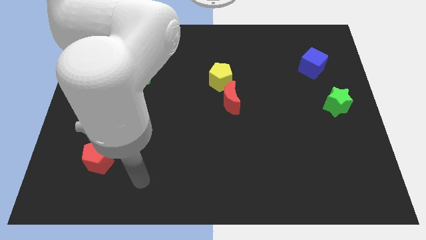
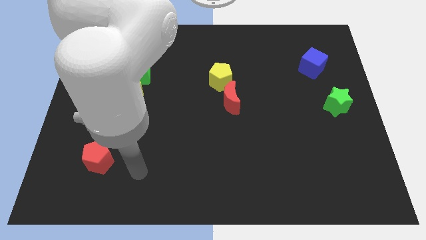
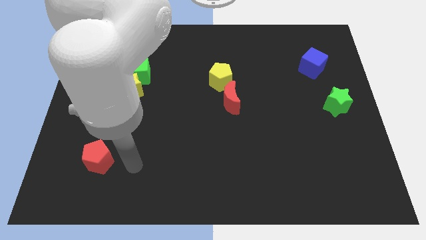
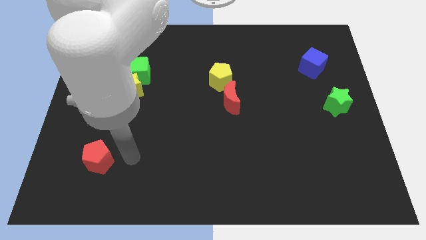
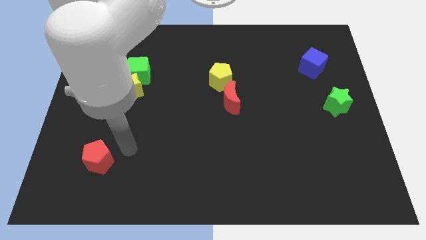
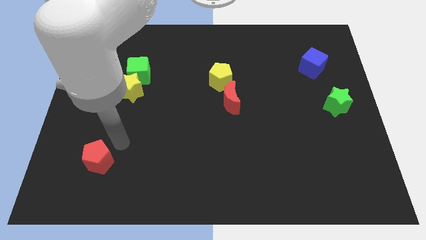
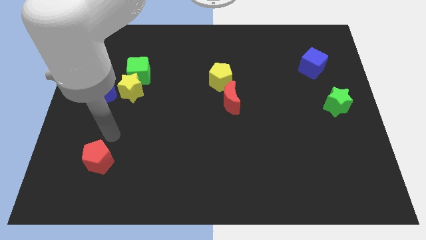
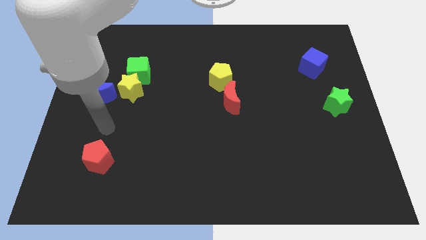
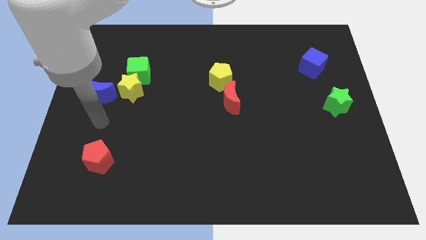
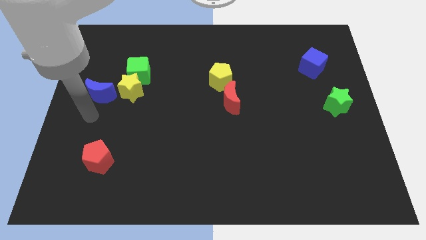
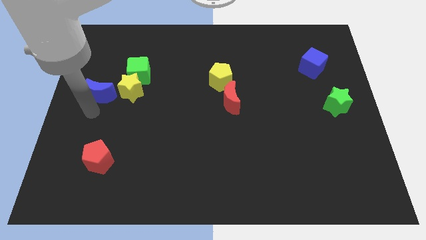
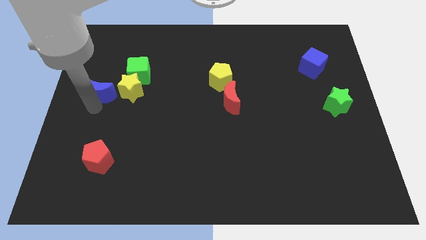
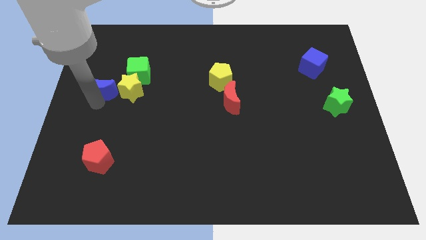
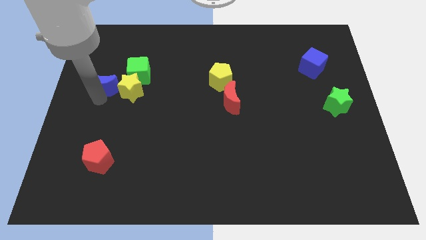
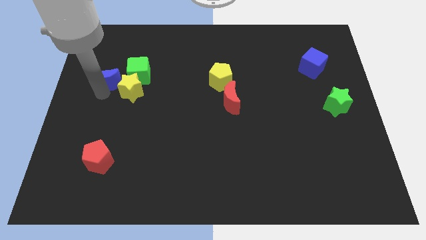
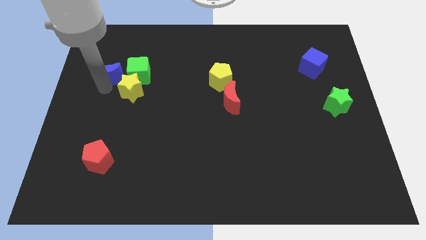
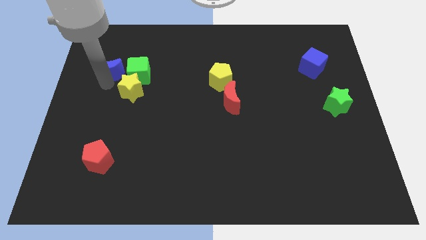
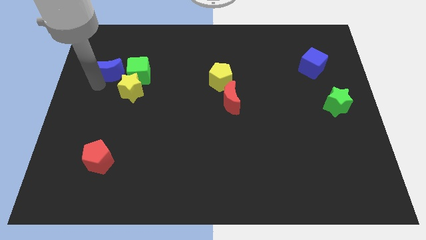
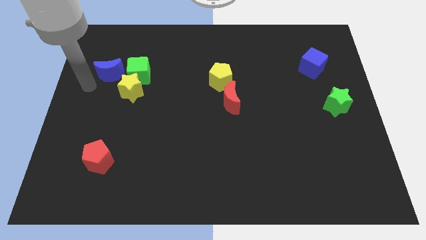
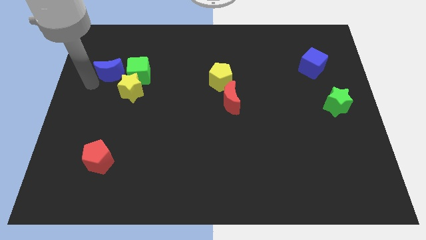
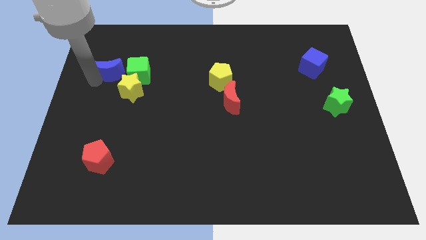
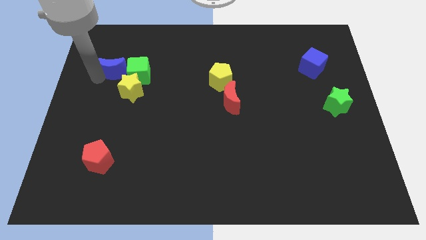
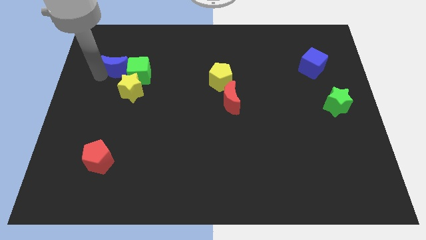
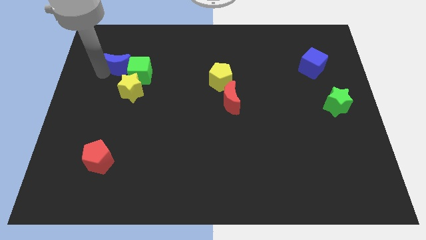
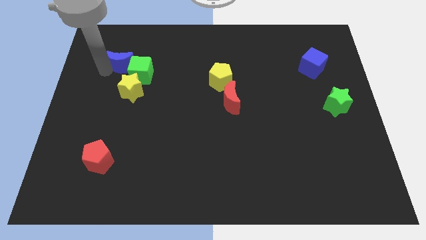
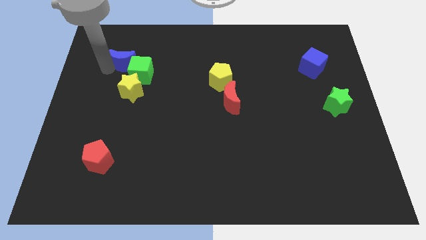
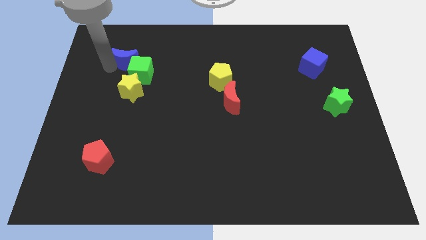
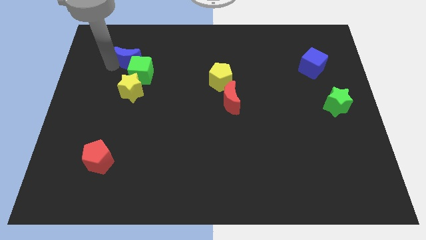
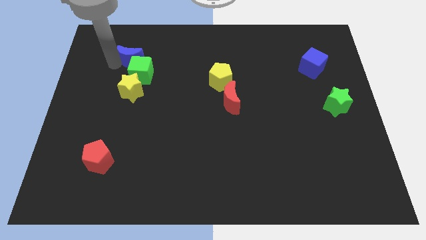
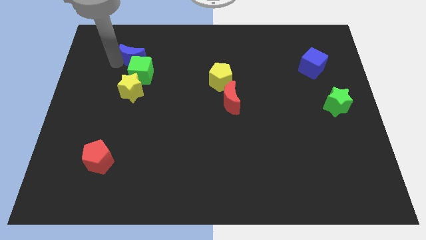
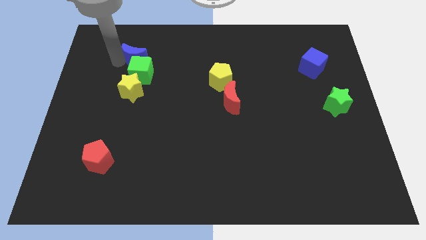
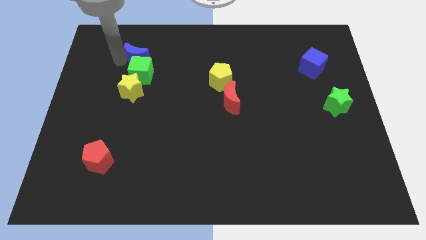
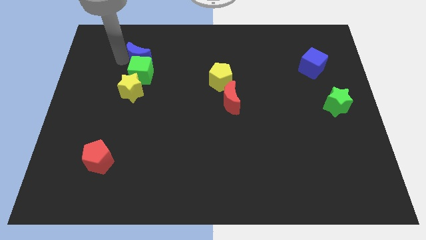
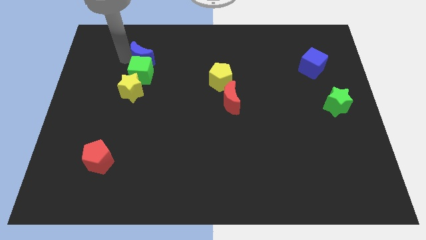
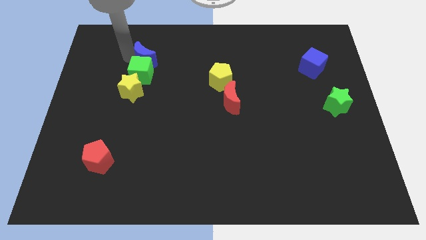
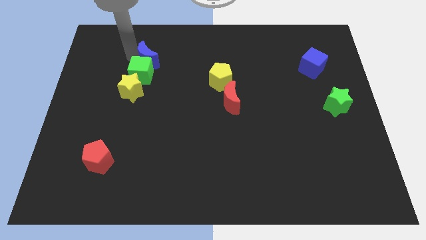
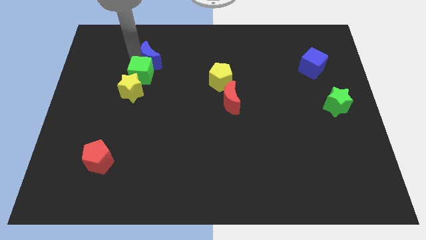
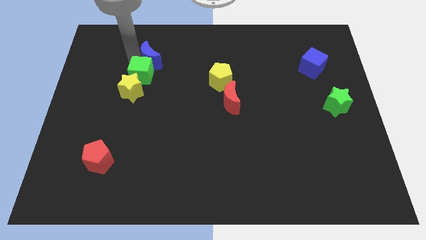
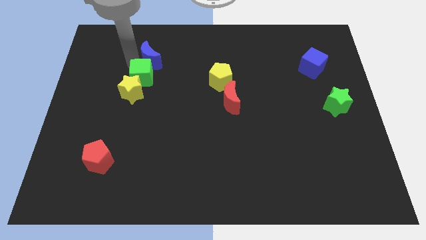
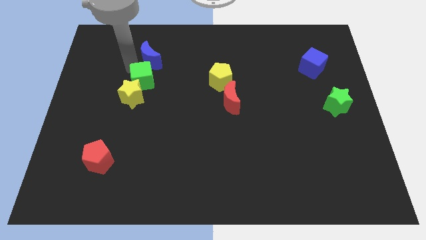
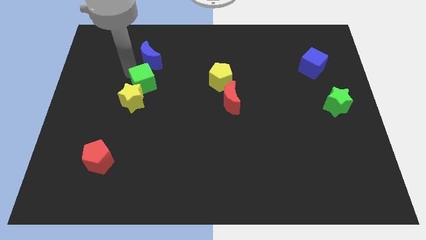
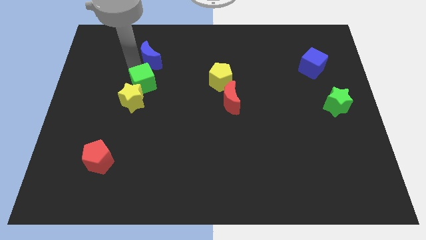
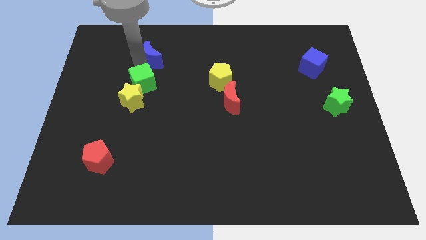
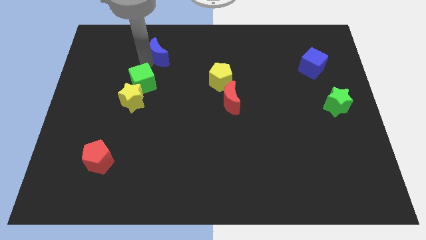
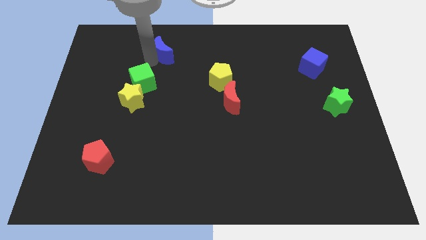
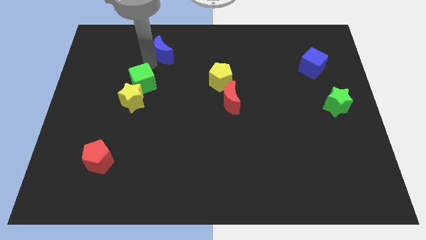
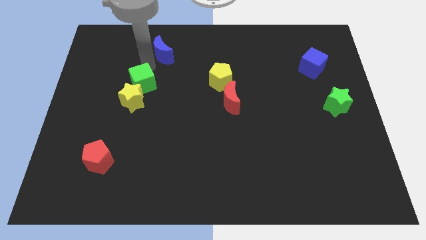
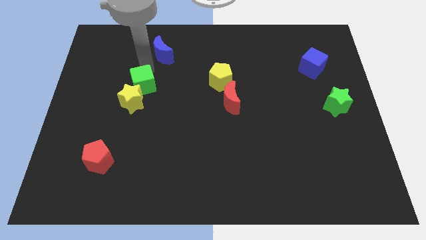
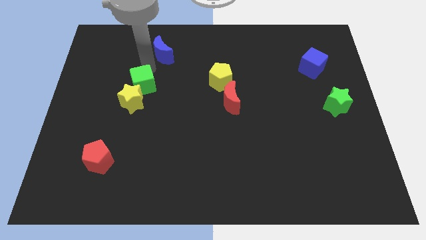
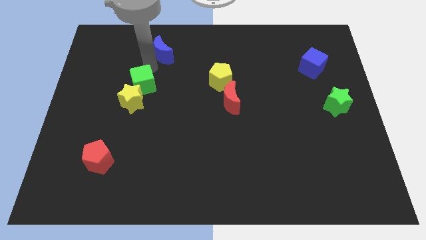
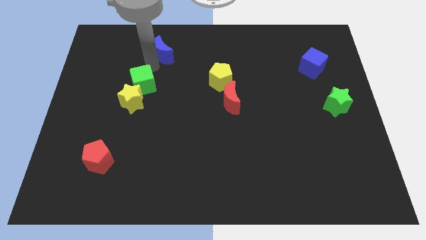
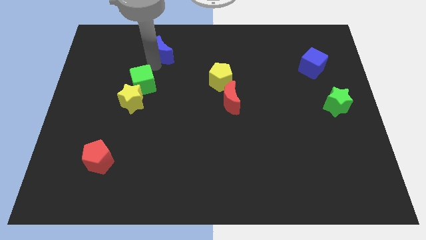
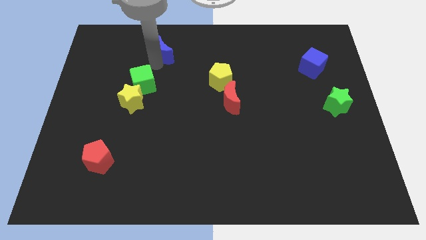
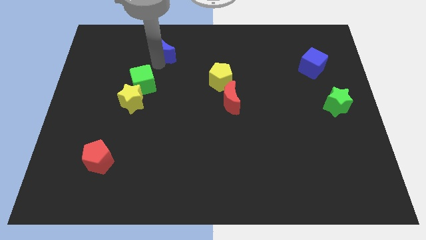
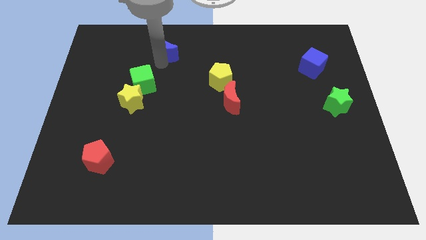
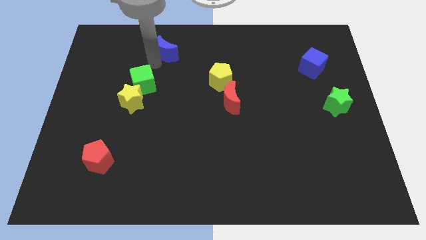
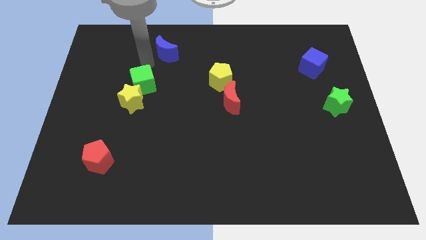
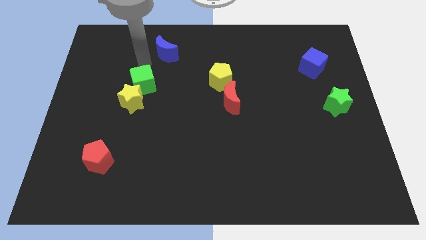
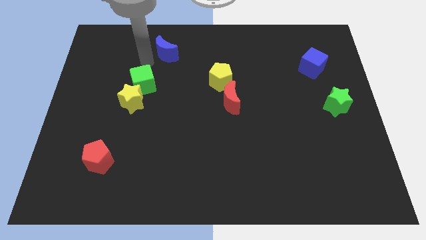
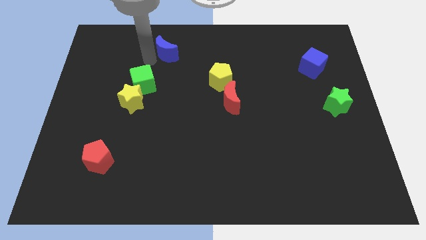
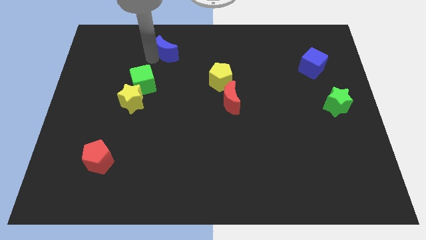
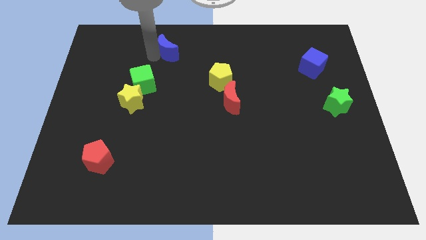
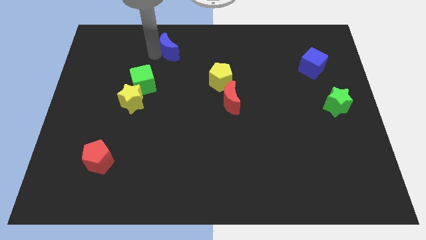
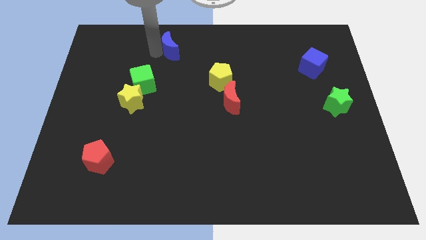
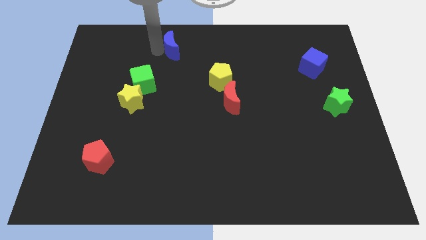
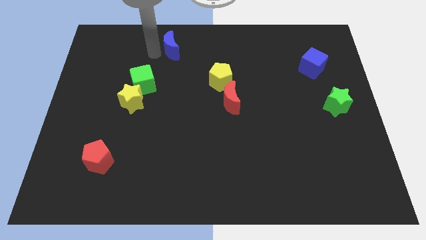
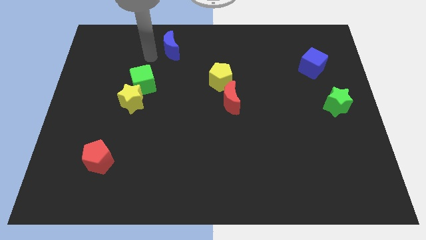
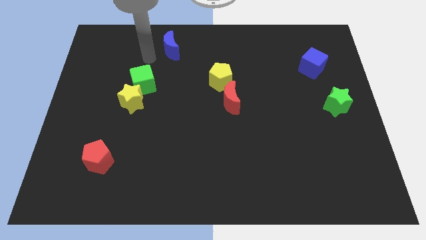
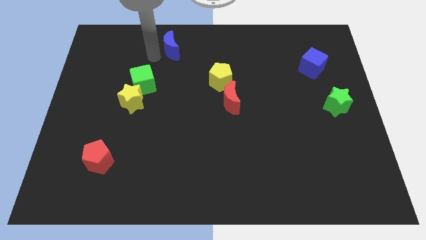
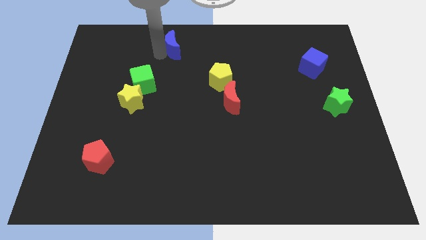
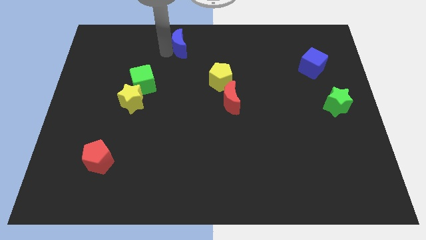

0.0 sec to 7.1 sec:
put the blue moon to the top side
